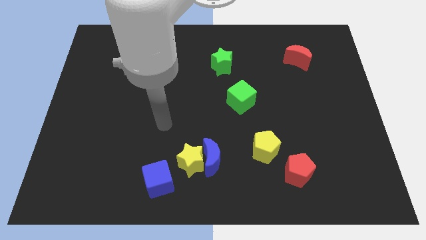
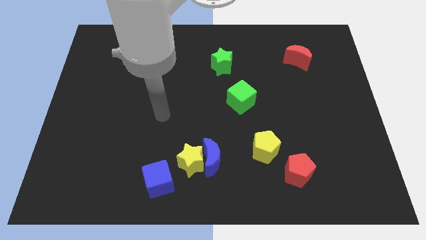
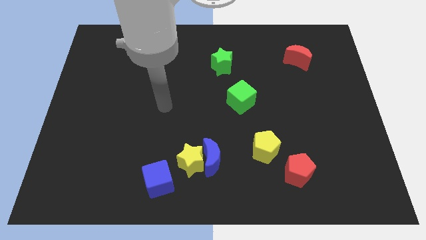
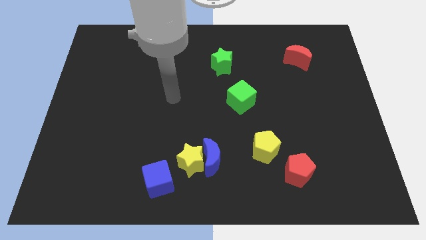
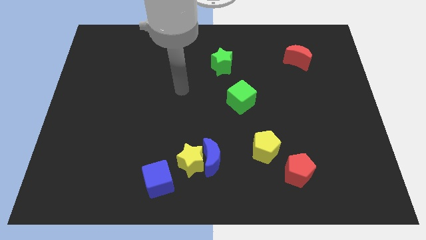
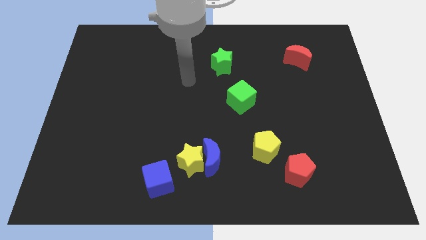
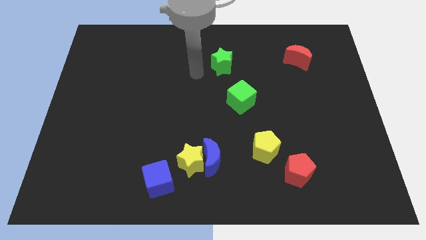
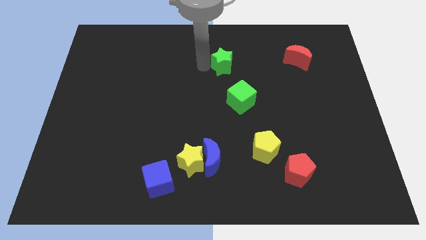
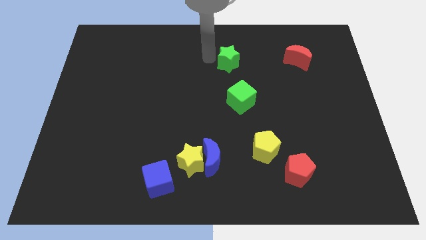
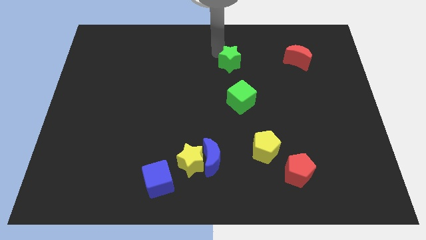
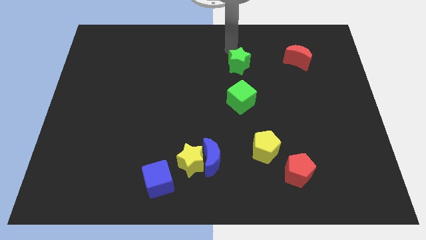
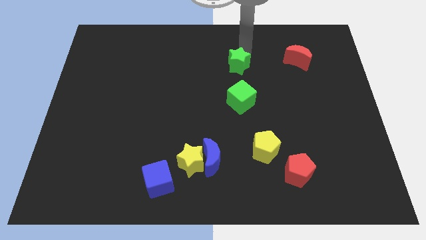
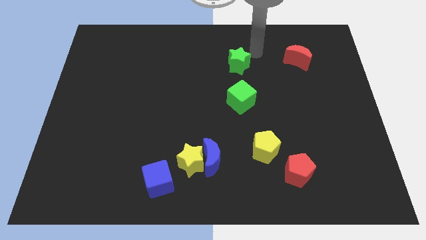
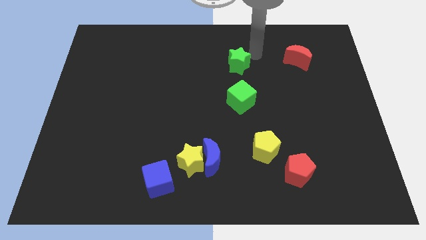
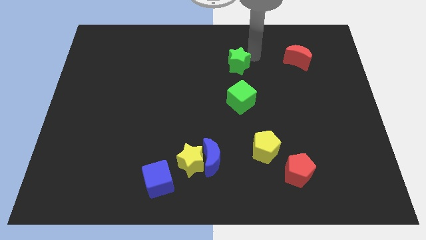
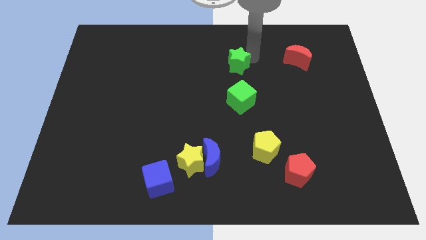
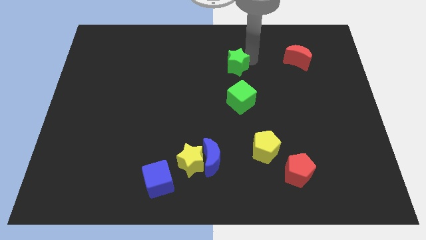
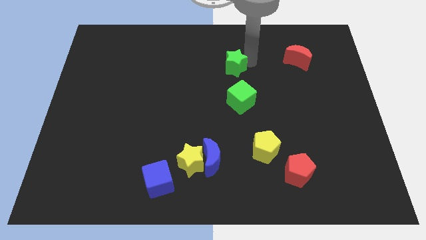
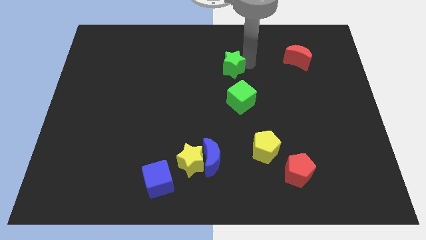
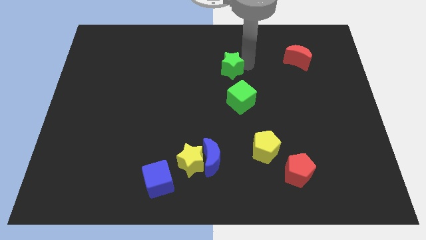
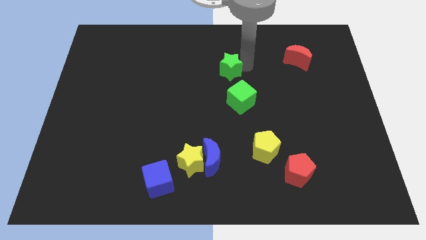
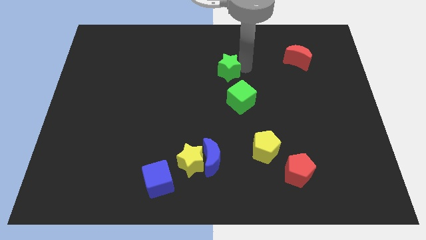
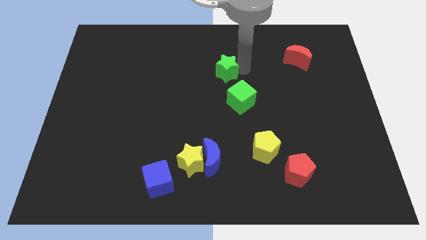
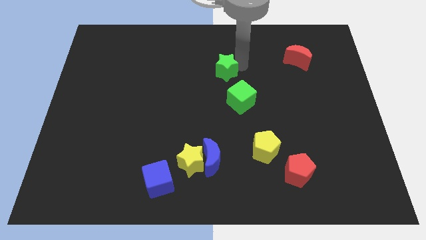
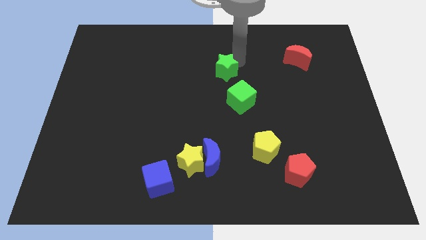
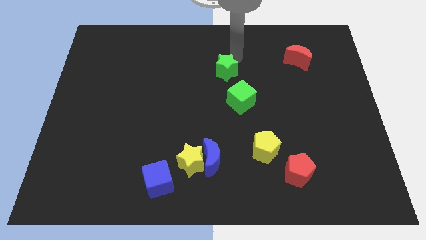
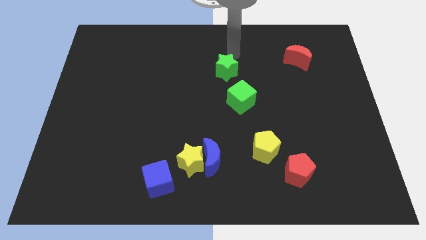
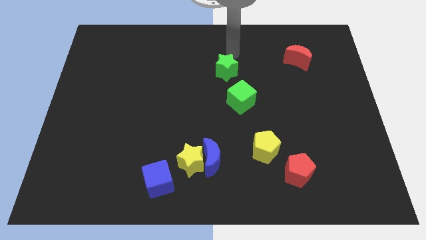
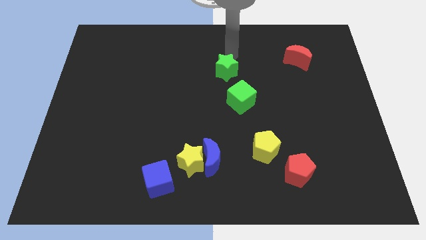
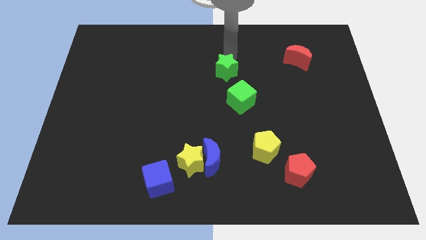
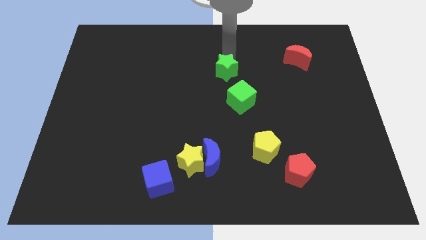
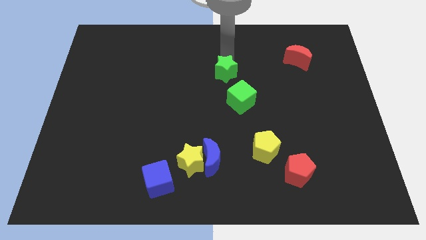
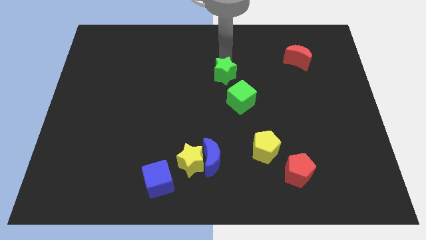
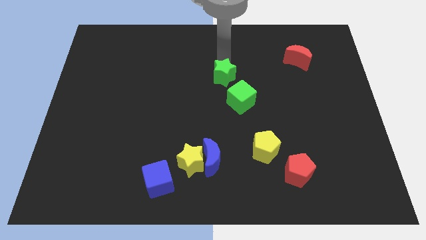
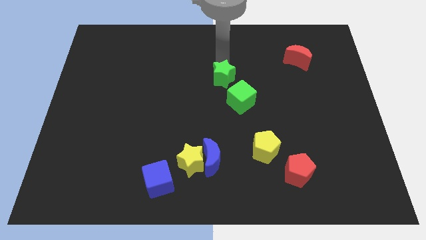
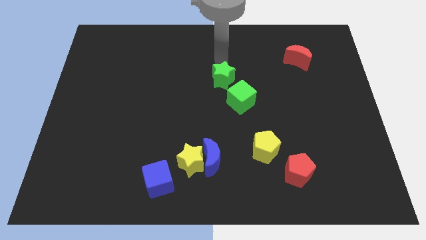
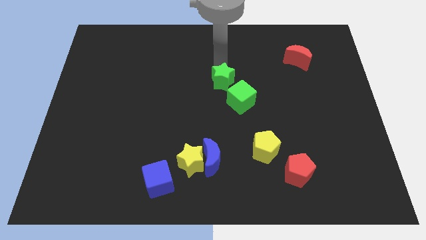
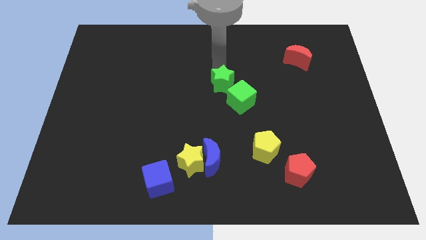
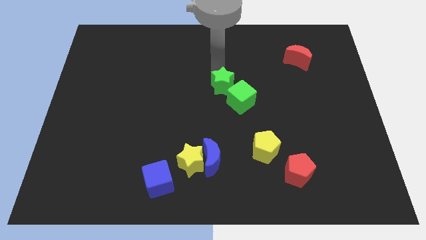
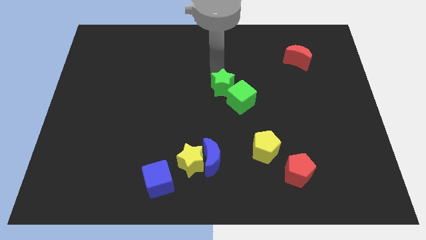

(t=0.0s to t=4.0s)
slightly slide the green star downwards

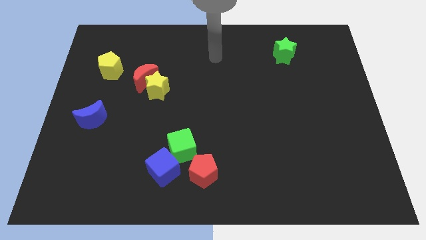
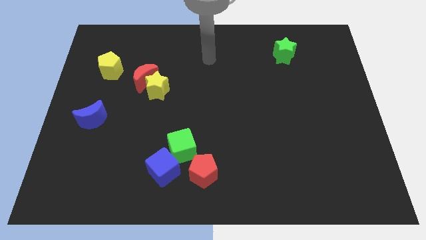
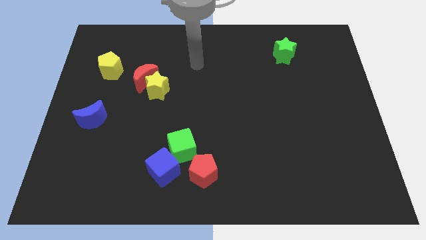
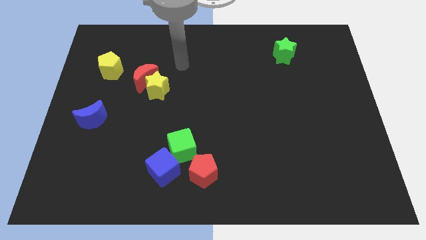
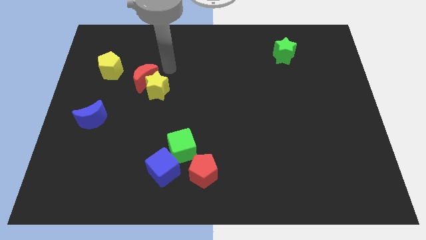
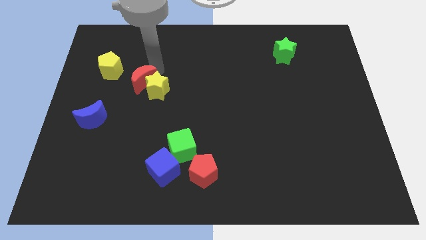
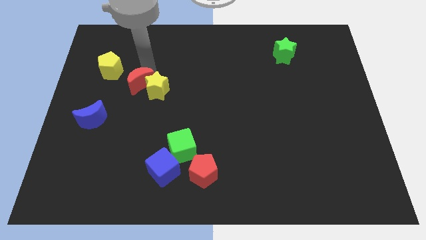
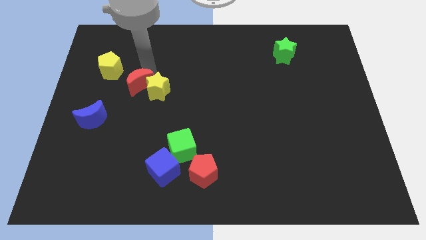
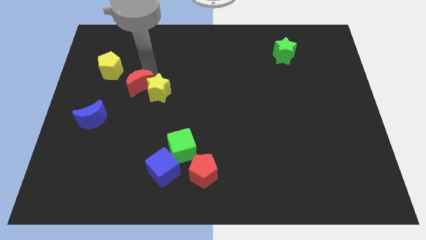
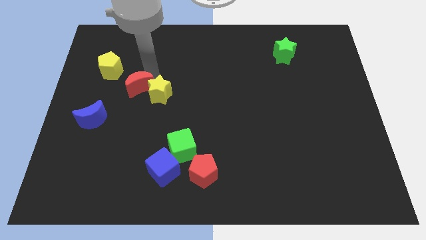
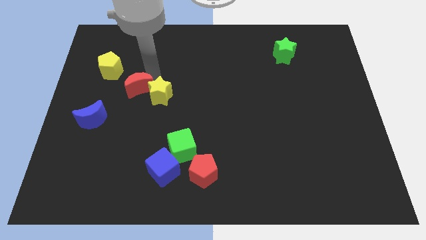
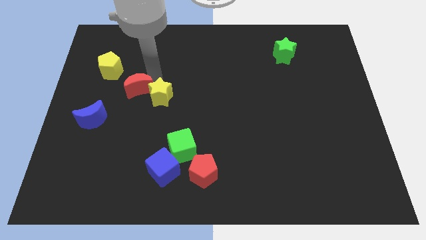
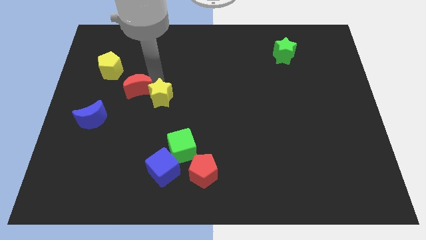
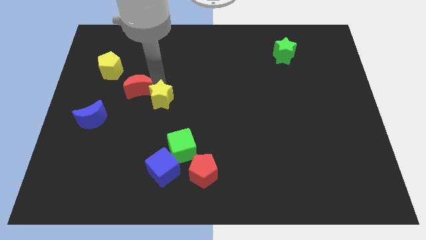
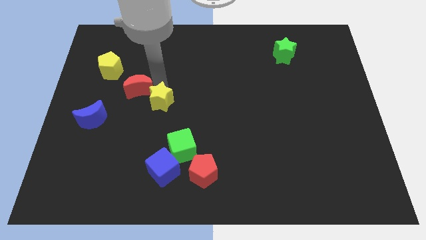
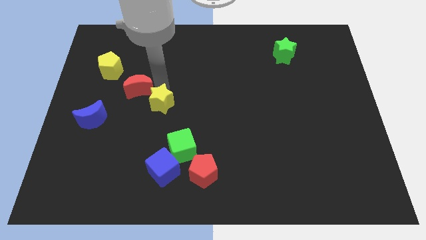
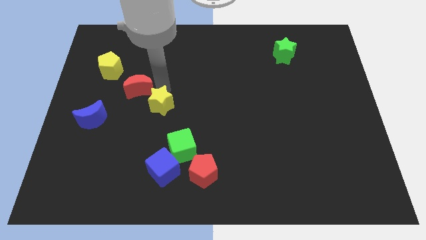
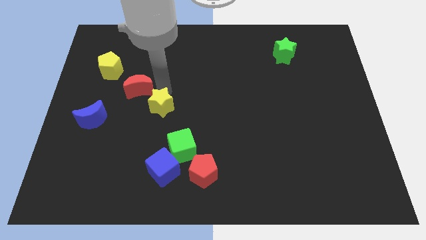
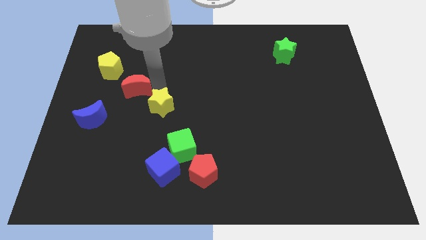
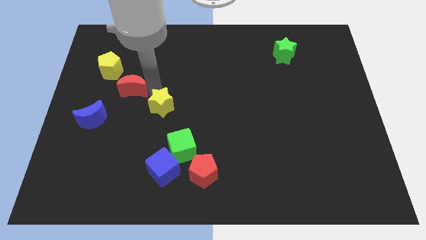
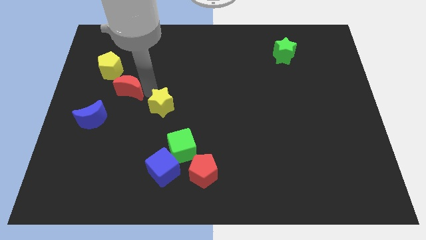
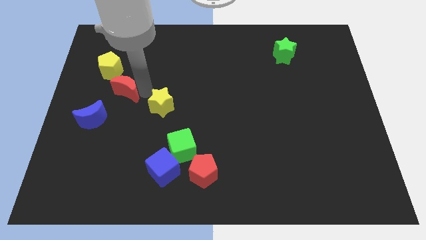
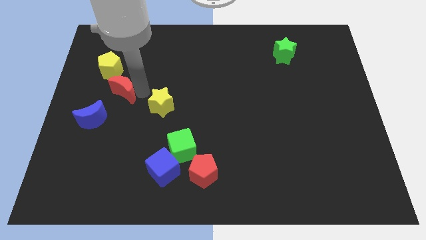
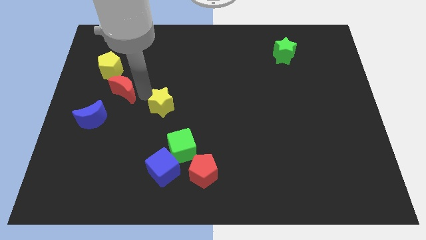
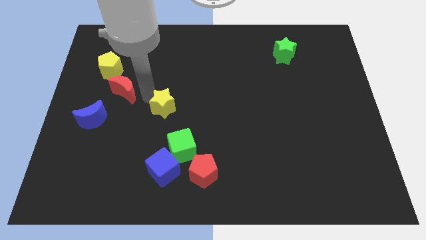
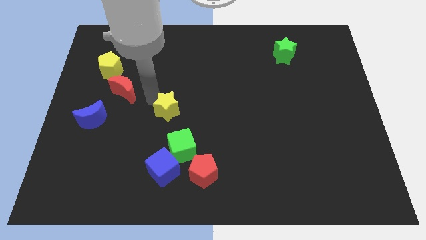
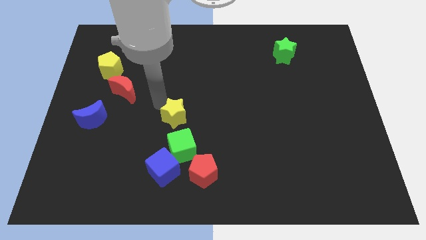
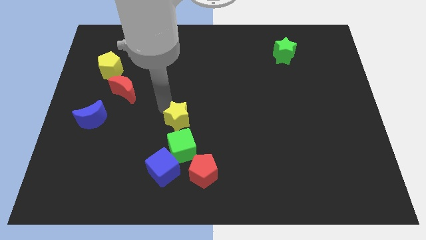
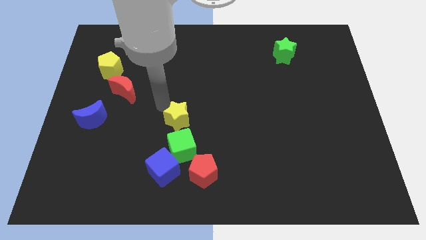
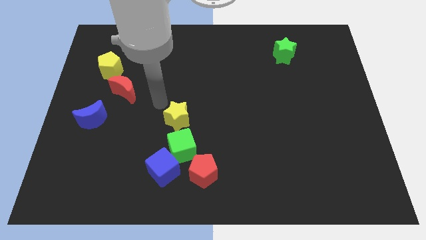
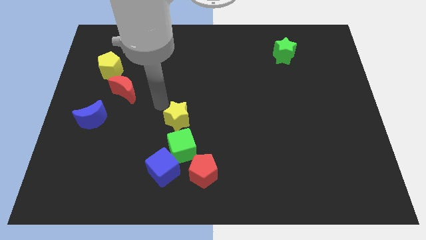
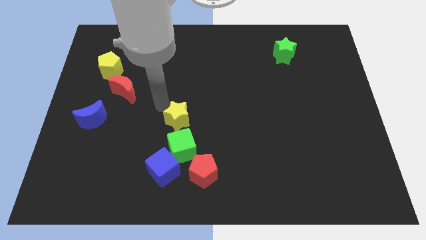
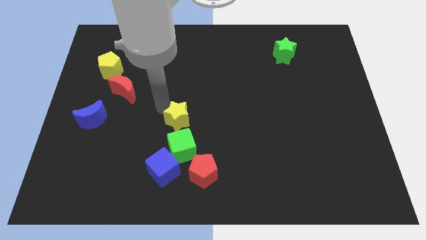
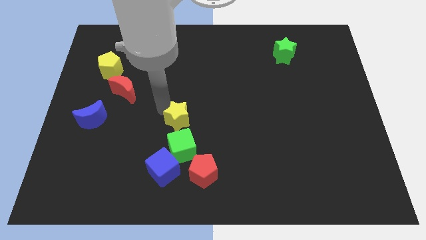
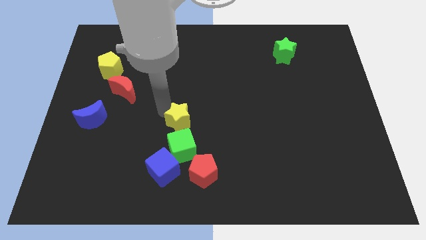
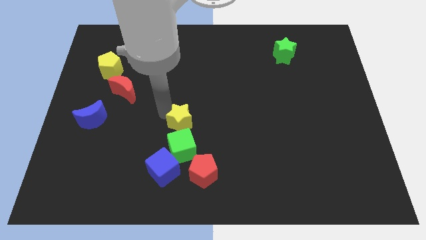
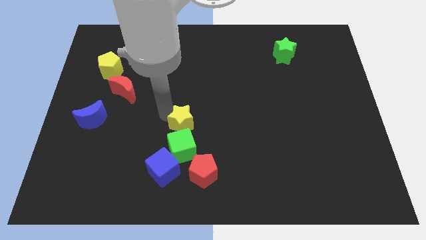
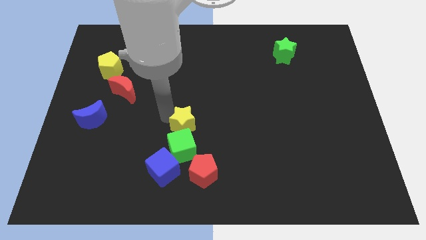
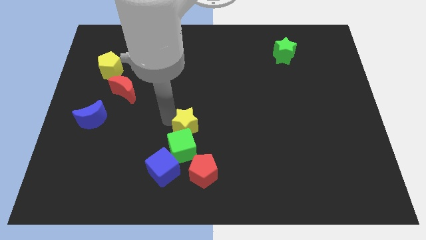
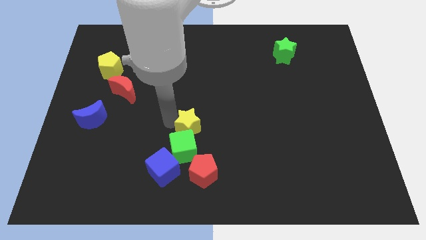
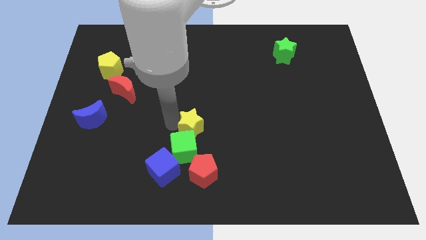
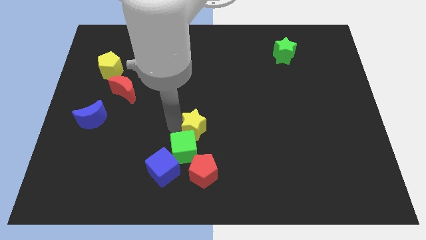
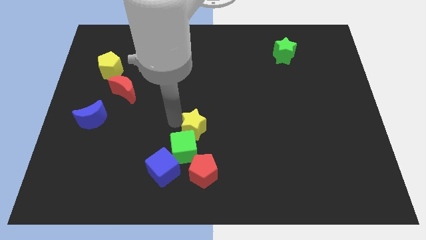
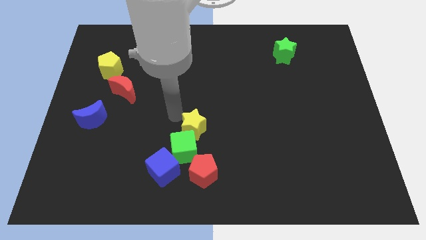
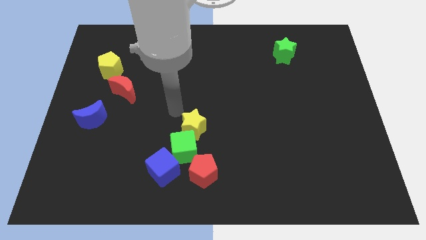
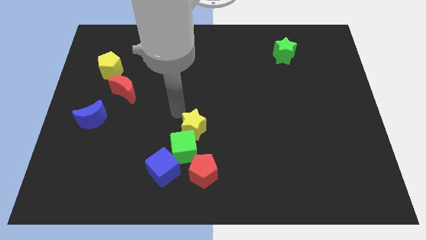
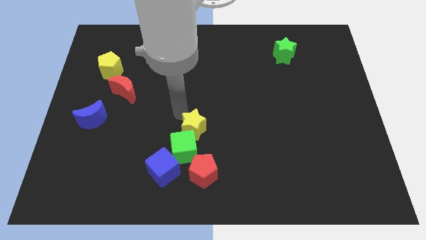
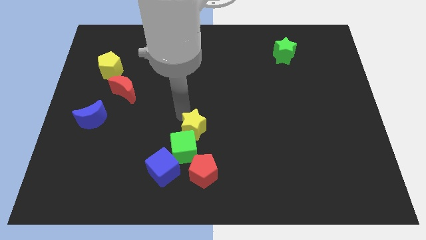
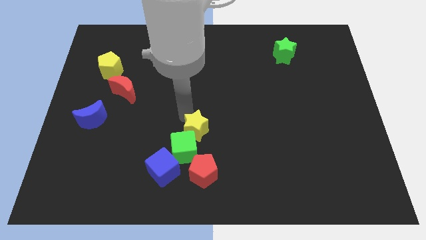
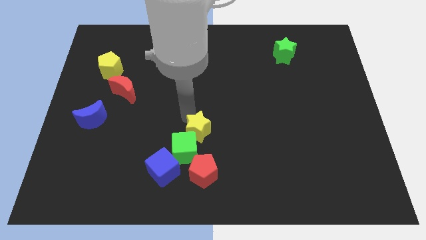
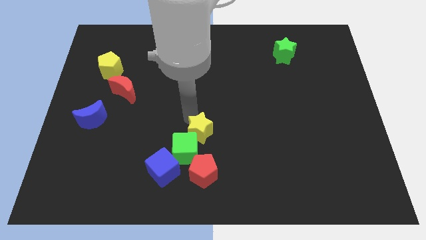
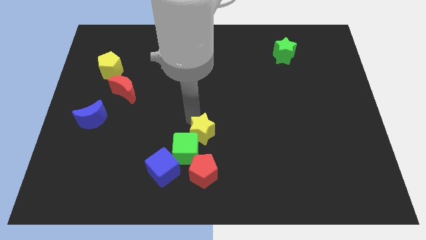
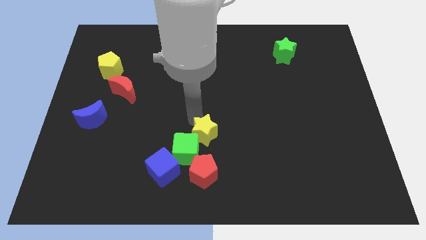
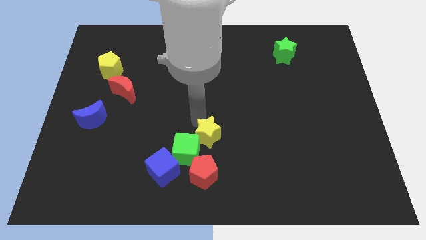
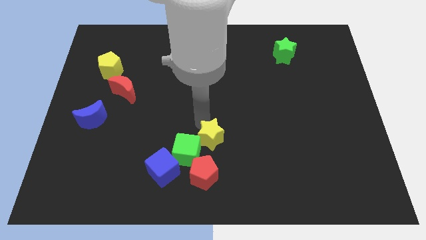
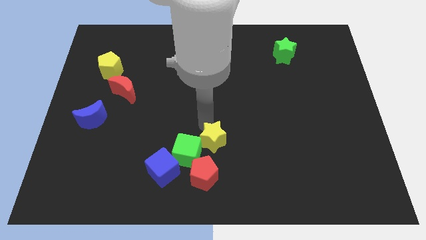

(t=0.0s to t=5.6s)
move the yellow star diagonally down and right
